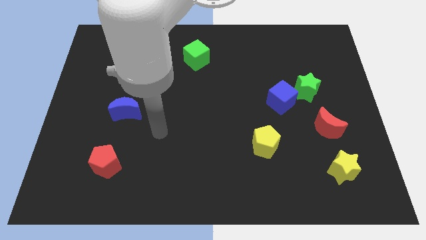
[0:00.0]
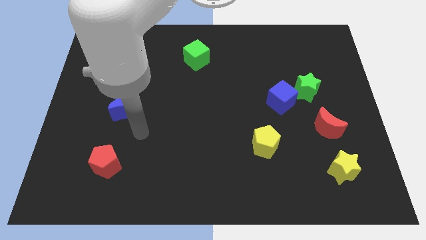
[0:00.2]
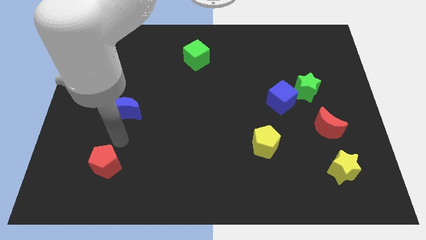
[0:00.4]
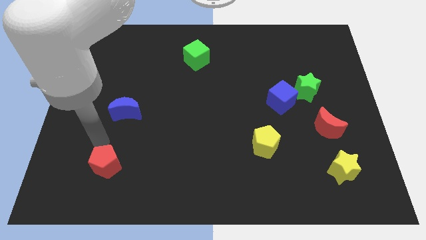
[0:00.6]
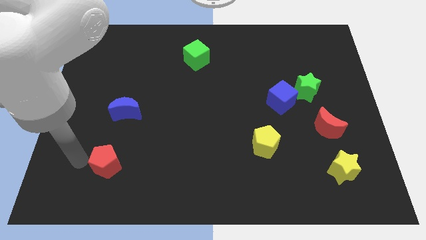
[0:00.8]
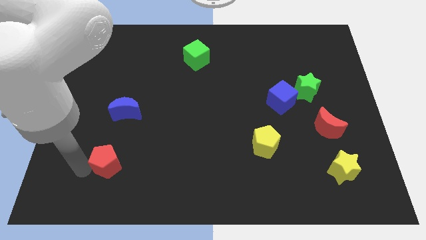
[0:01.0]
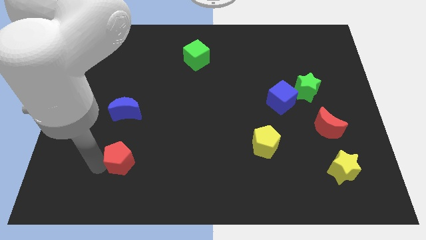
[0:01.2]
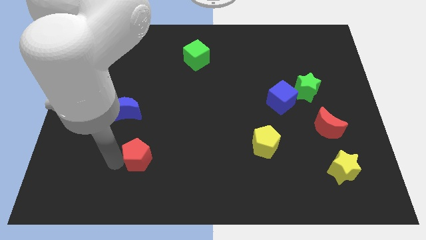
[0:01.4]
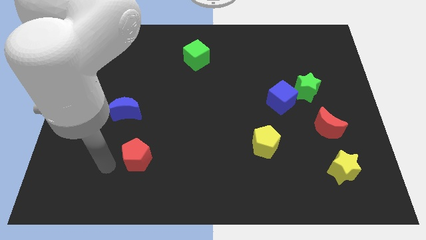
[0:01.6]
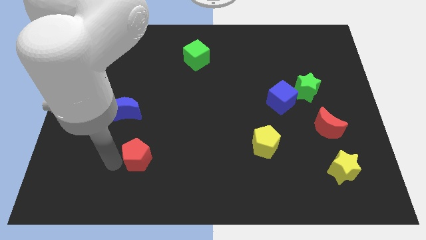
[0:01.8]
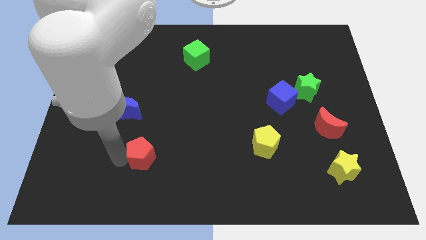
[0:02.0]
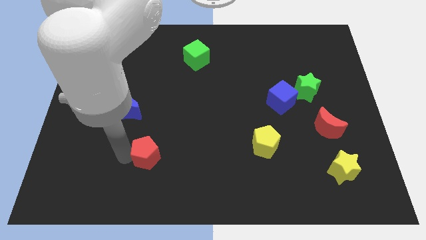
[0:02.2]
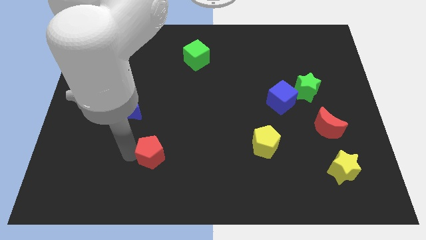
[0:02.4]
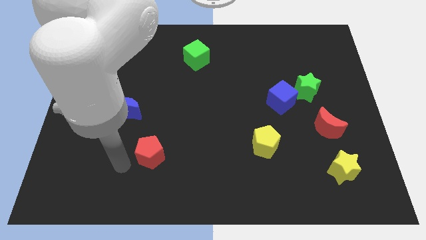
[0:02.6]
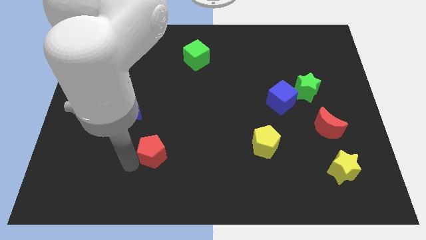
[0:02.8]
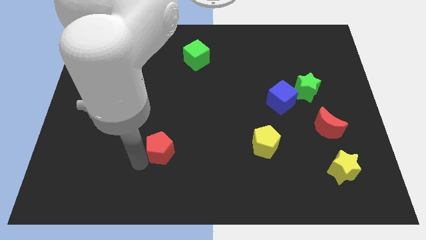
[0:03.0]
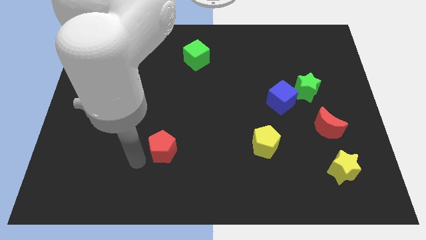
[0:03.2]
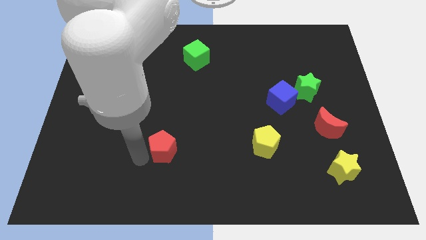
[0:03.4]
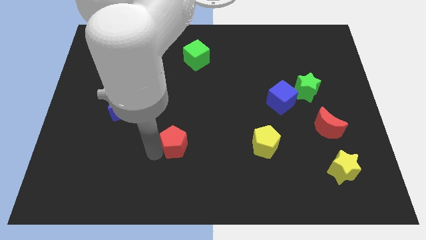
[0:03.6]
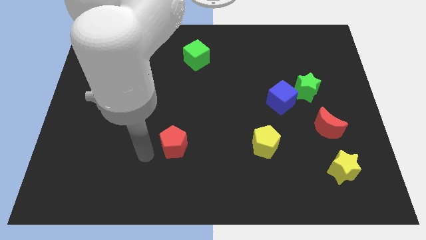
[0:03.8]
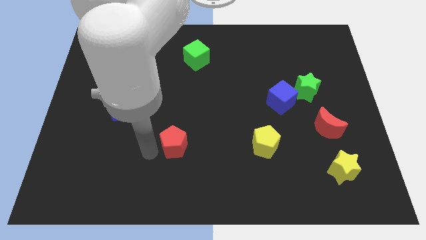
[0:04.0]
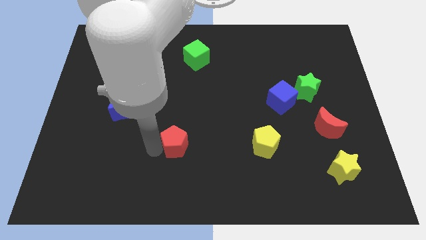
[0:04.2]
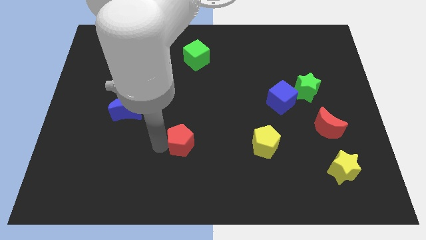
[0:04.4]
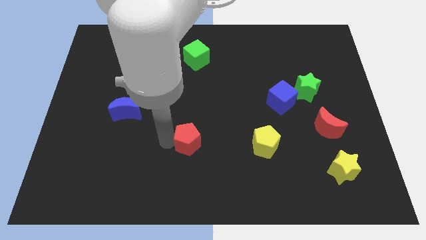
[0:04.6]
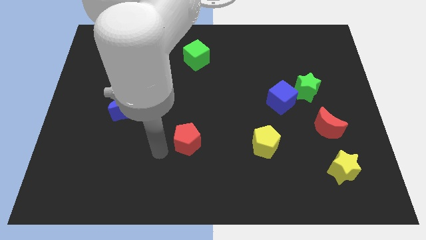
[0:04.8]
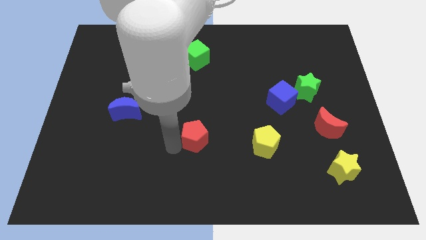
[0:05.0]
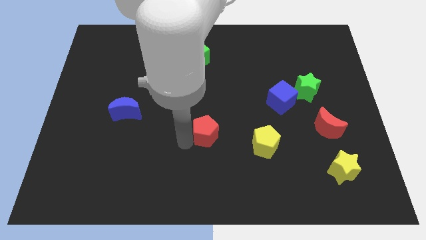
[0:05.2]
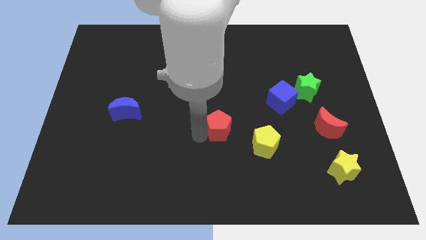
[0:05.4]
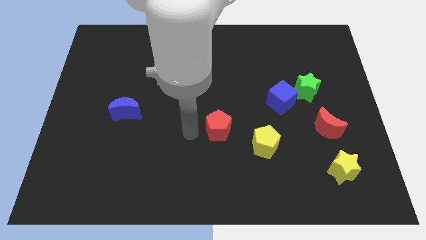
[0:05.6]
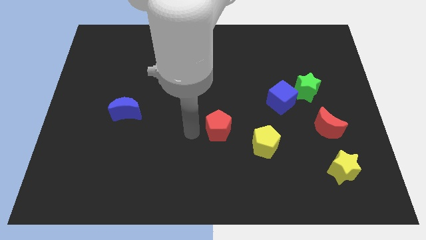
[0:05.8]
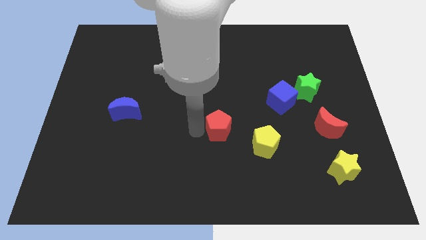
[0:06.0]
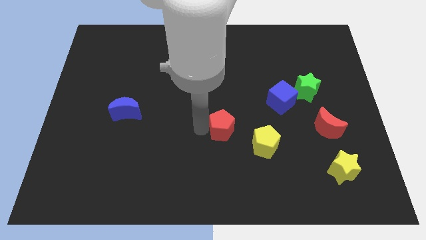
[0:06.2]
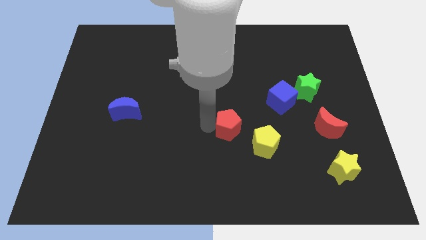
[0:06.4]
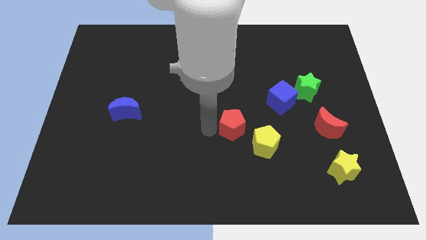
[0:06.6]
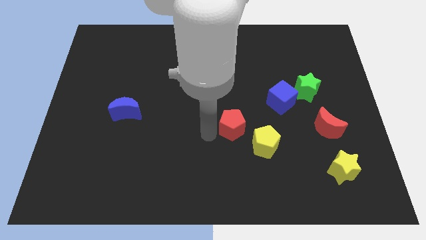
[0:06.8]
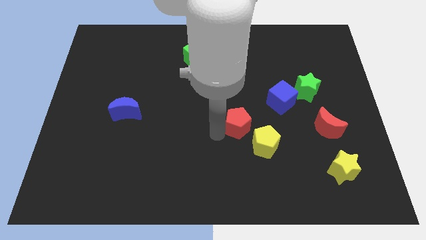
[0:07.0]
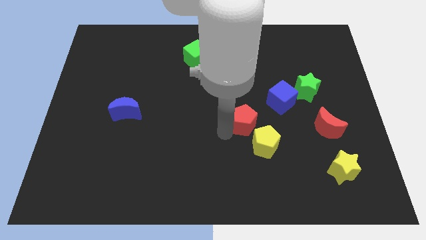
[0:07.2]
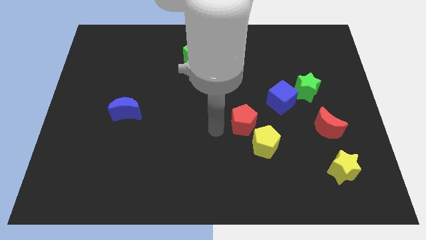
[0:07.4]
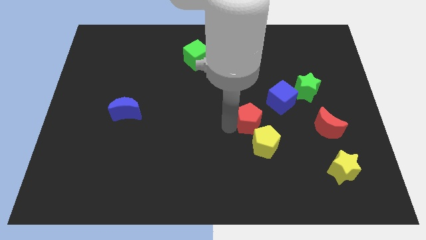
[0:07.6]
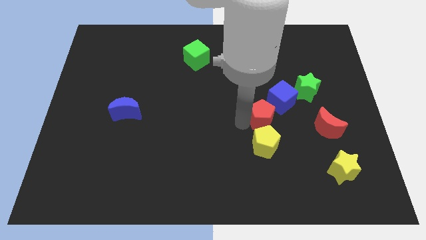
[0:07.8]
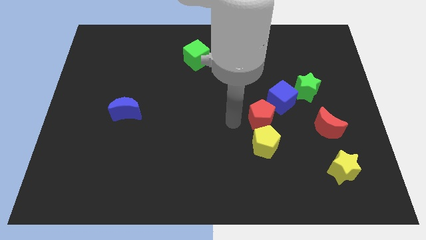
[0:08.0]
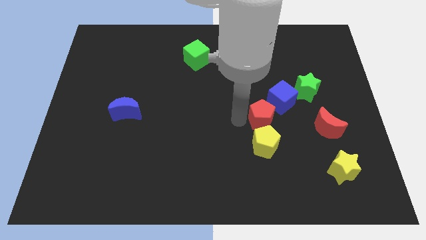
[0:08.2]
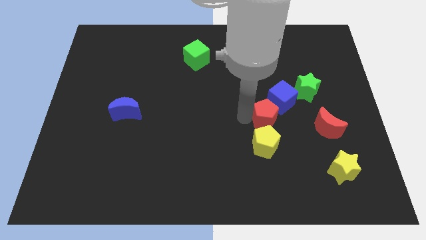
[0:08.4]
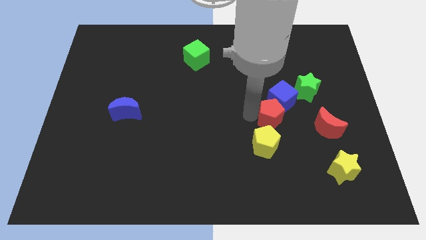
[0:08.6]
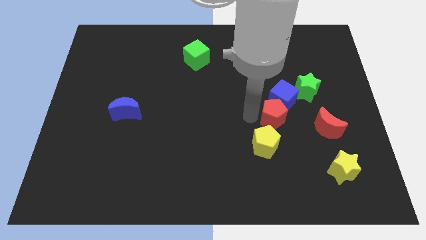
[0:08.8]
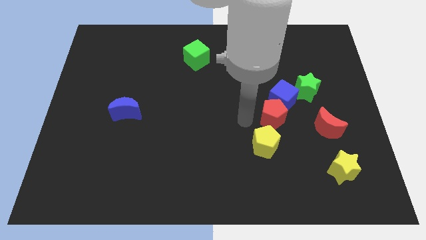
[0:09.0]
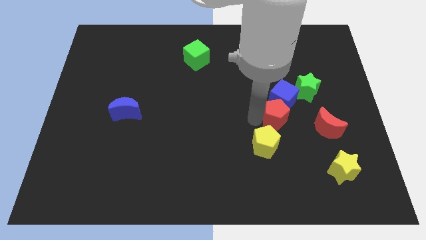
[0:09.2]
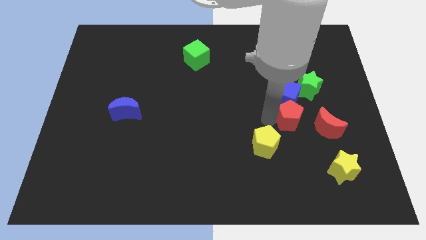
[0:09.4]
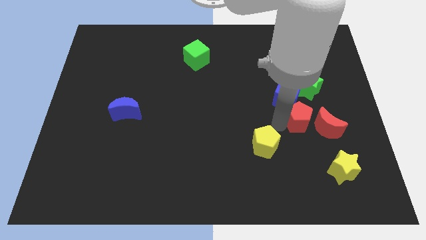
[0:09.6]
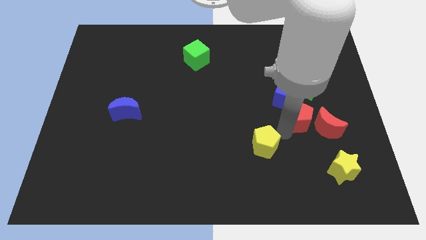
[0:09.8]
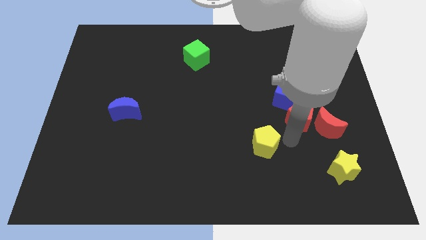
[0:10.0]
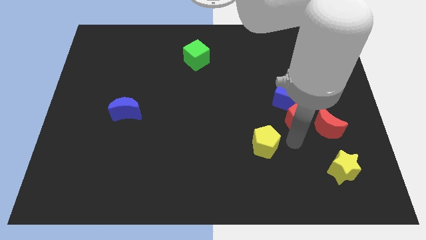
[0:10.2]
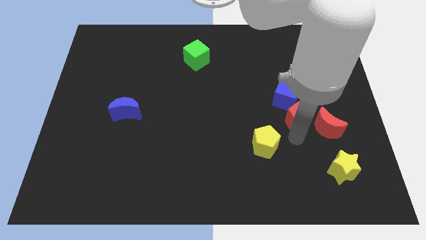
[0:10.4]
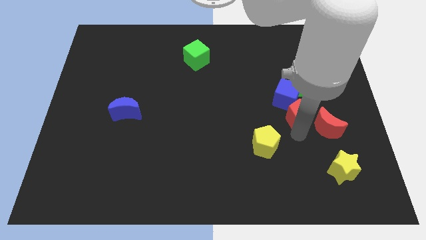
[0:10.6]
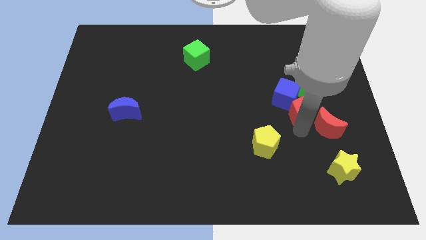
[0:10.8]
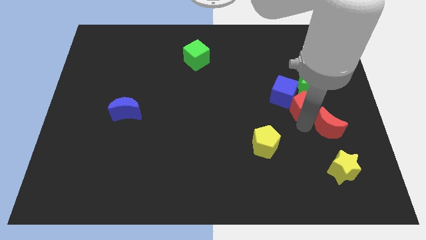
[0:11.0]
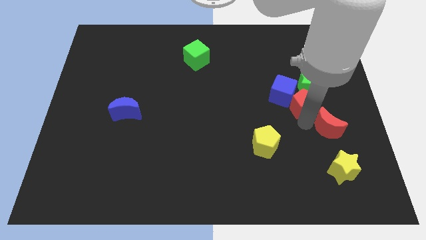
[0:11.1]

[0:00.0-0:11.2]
push the red pentagon next to the green star

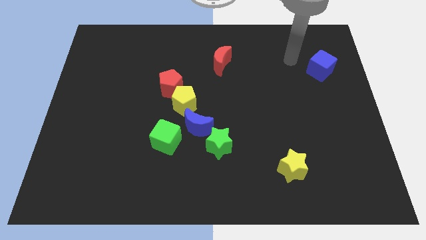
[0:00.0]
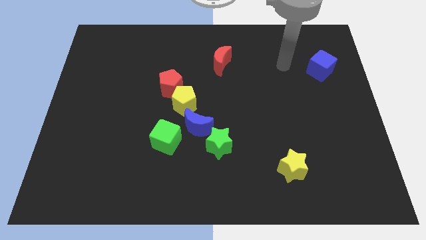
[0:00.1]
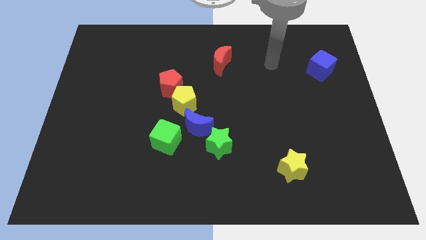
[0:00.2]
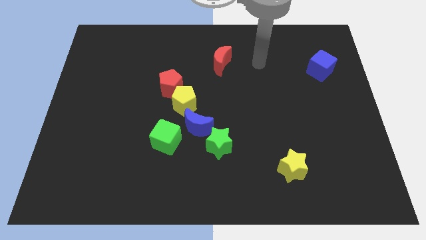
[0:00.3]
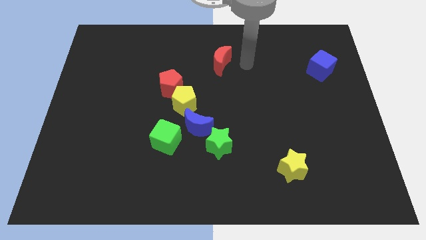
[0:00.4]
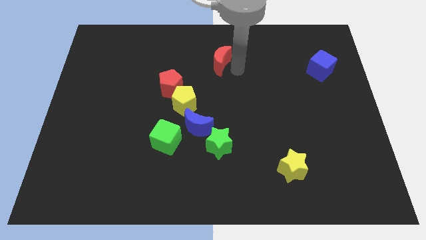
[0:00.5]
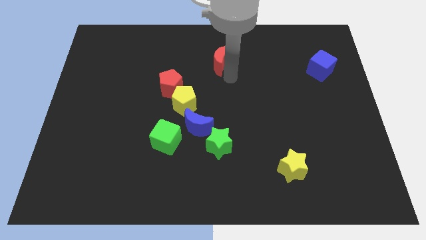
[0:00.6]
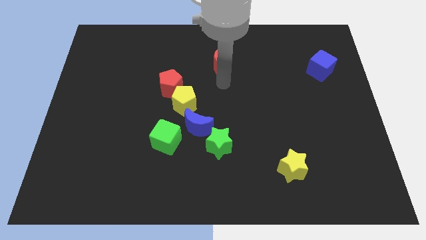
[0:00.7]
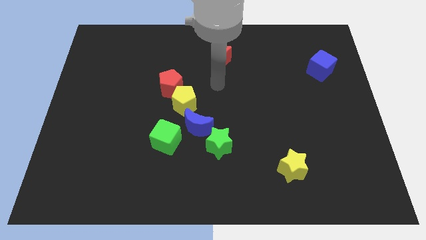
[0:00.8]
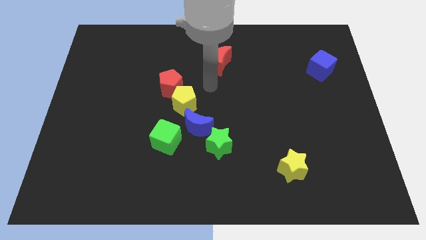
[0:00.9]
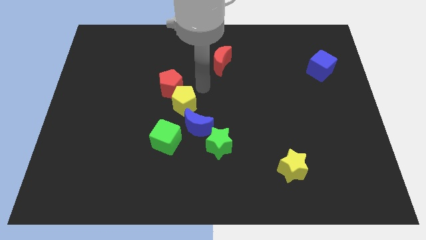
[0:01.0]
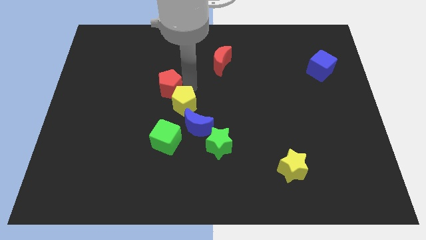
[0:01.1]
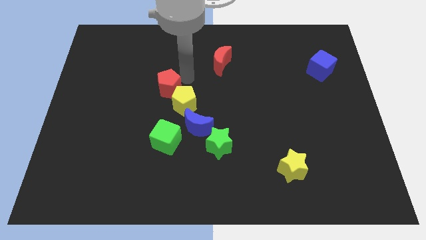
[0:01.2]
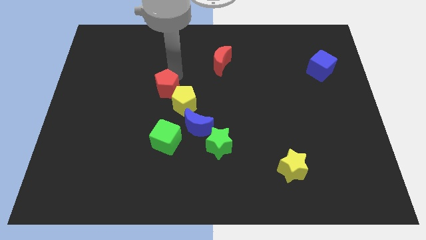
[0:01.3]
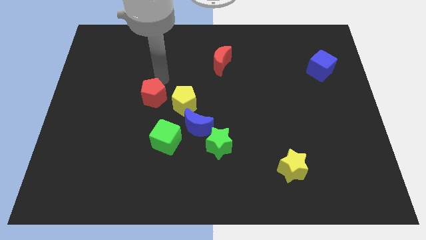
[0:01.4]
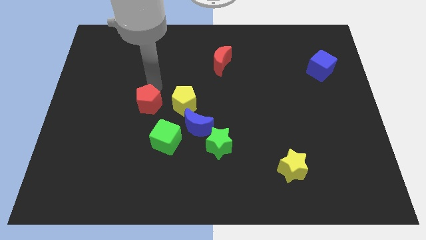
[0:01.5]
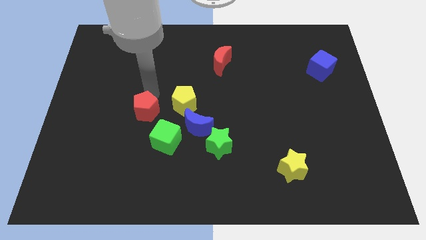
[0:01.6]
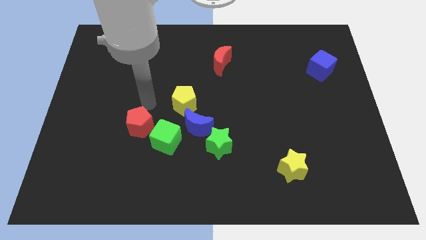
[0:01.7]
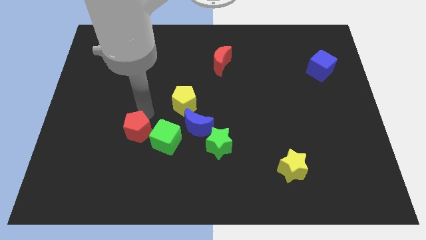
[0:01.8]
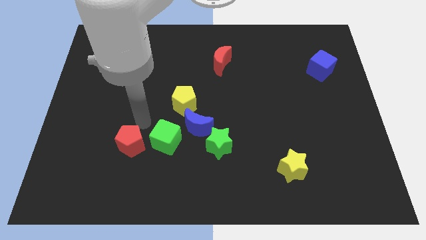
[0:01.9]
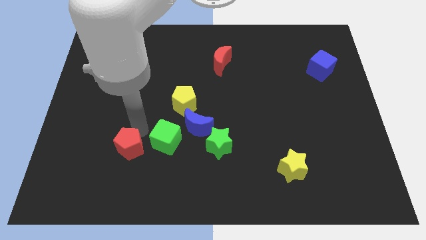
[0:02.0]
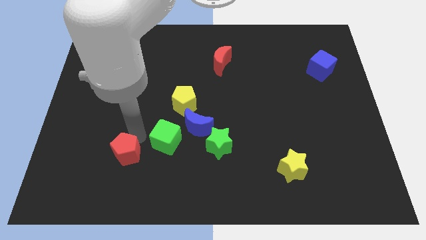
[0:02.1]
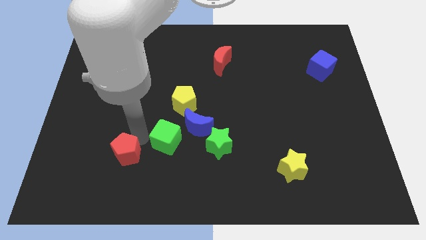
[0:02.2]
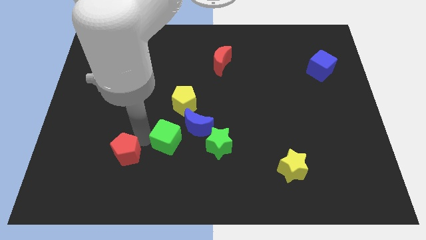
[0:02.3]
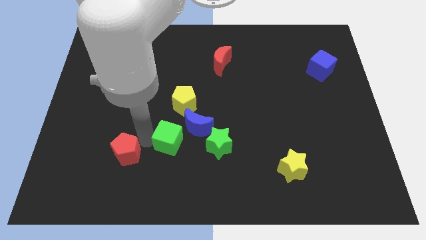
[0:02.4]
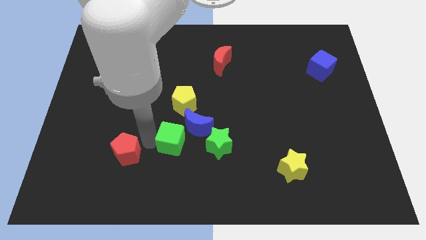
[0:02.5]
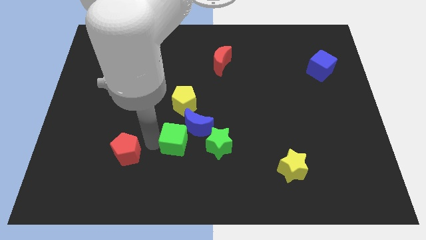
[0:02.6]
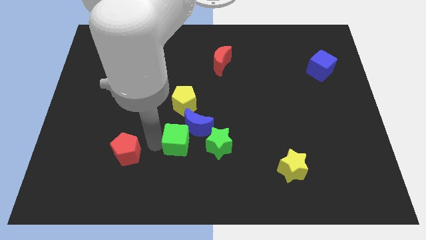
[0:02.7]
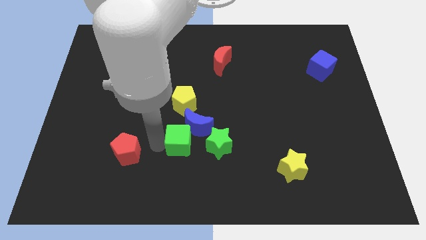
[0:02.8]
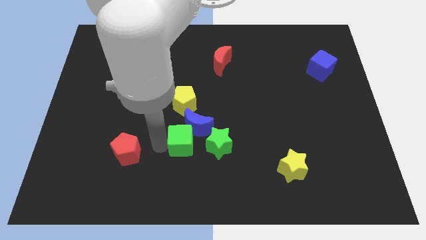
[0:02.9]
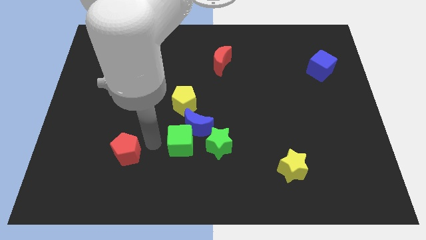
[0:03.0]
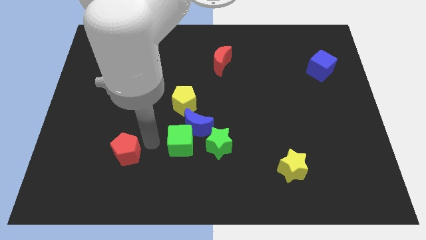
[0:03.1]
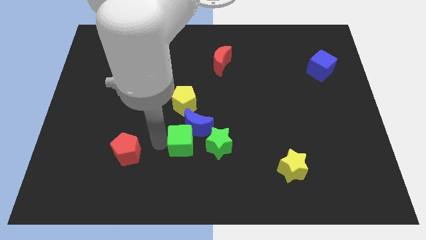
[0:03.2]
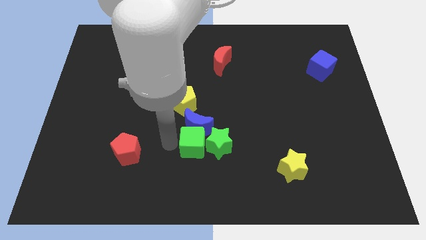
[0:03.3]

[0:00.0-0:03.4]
put the green cube next to the green star
